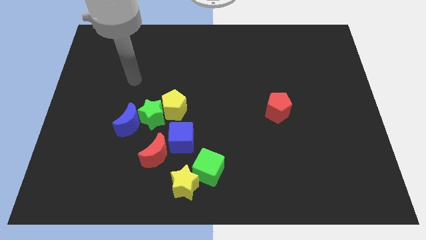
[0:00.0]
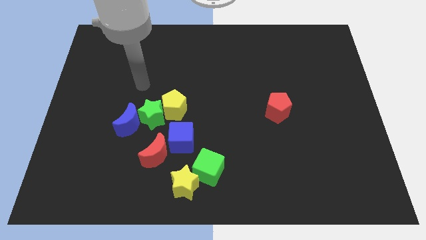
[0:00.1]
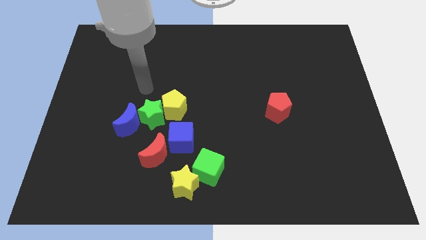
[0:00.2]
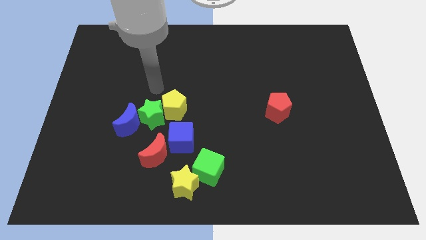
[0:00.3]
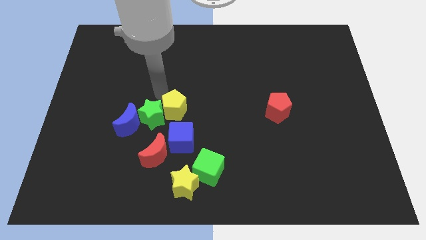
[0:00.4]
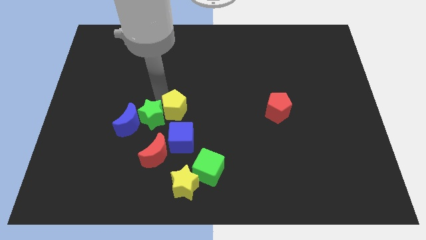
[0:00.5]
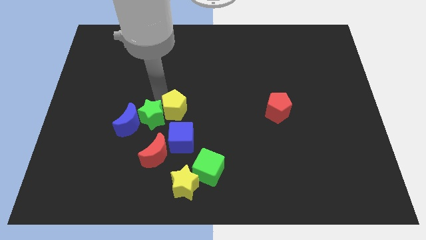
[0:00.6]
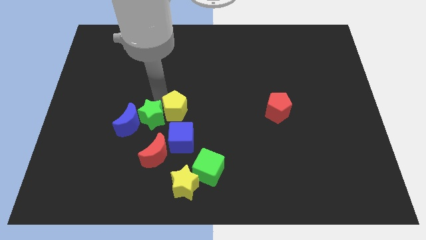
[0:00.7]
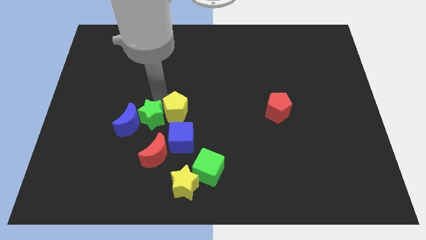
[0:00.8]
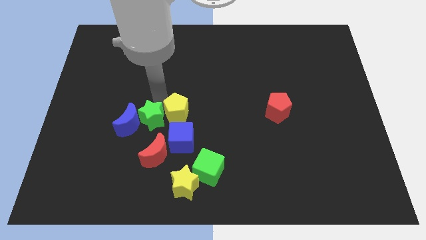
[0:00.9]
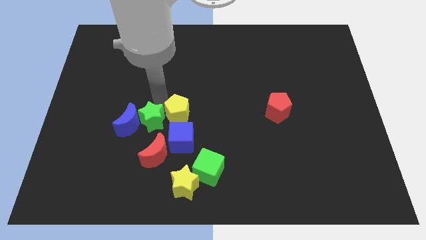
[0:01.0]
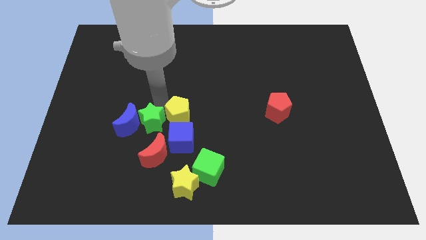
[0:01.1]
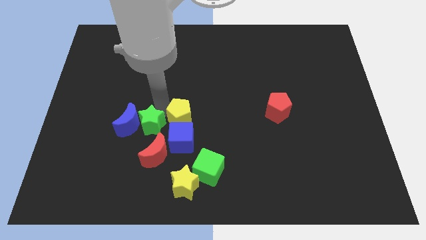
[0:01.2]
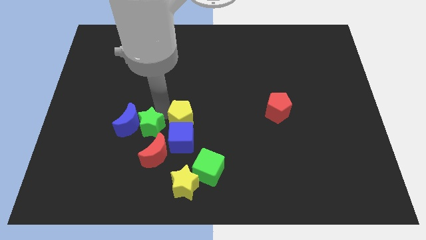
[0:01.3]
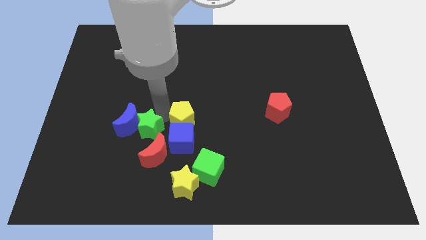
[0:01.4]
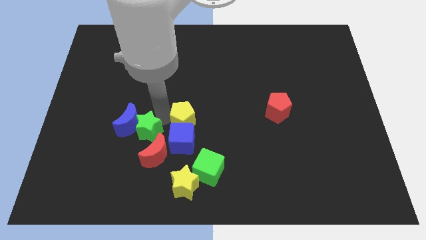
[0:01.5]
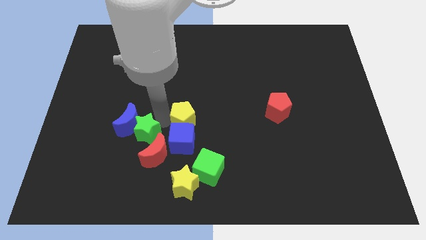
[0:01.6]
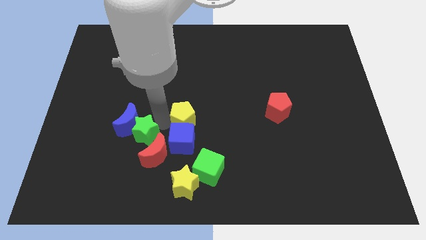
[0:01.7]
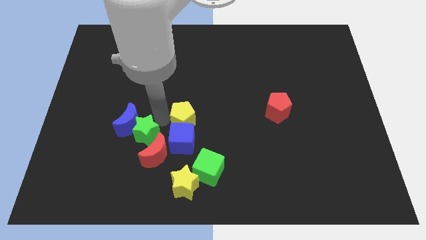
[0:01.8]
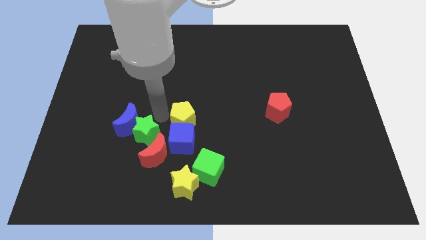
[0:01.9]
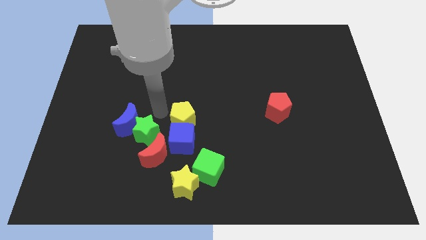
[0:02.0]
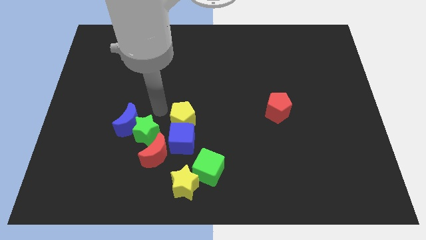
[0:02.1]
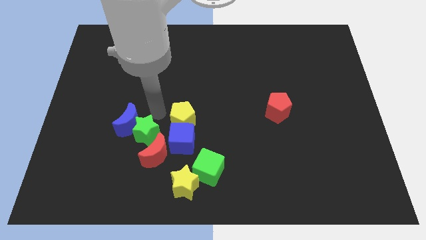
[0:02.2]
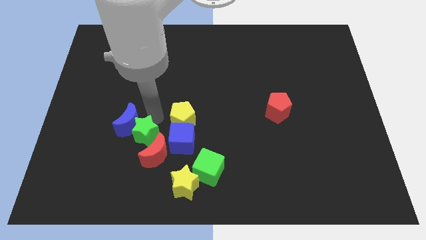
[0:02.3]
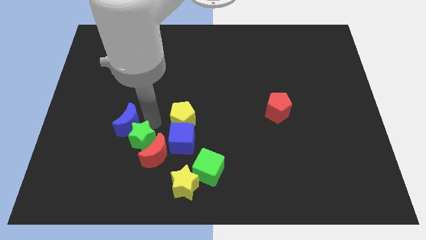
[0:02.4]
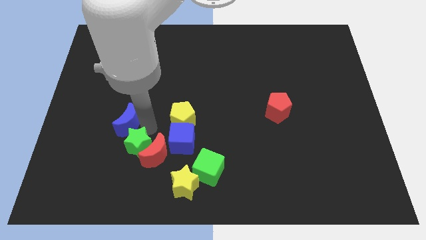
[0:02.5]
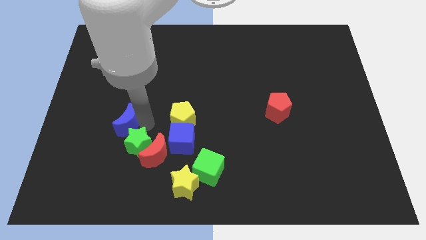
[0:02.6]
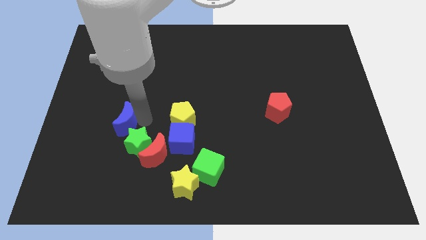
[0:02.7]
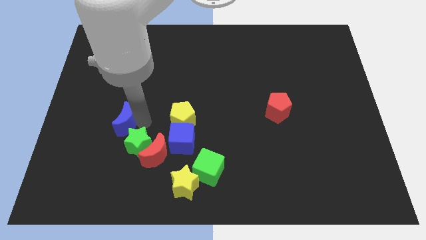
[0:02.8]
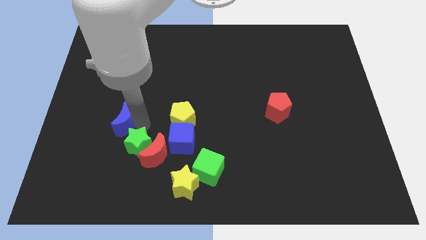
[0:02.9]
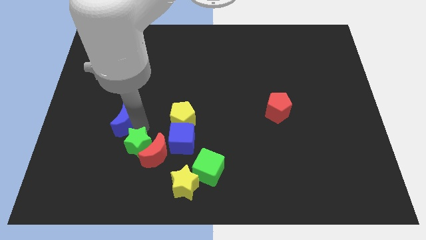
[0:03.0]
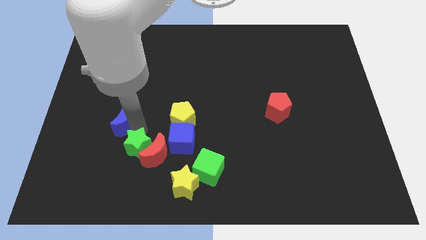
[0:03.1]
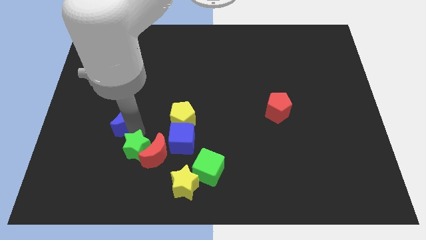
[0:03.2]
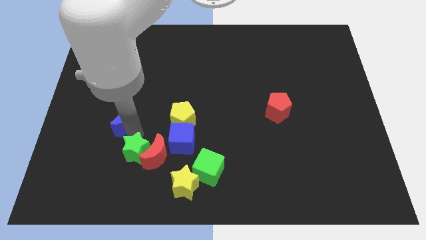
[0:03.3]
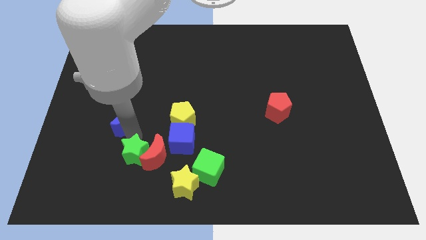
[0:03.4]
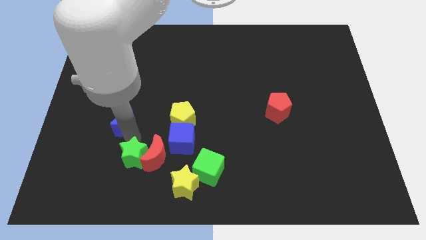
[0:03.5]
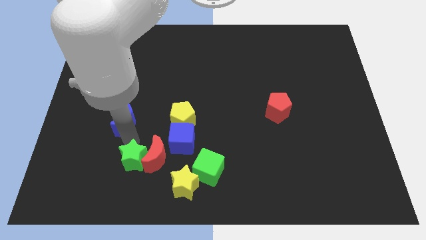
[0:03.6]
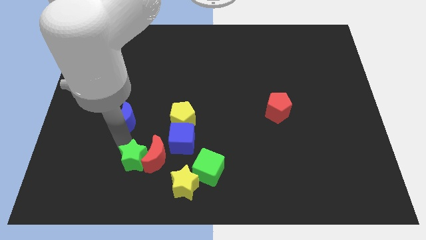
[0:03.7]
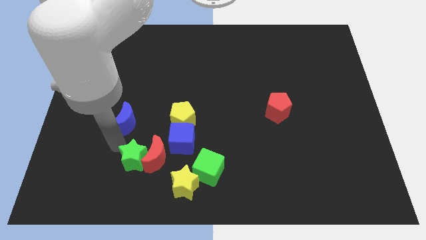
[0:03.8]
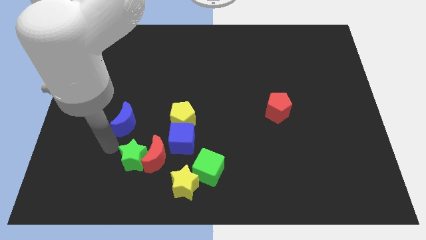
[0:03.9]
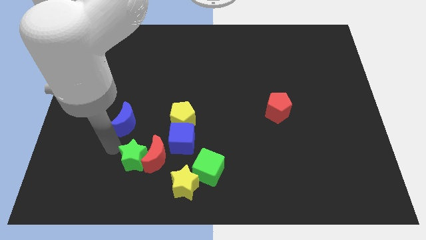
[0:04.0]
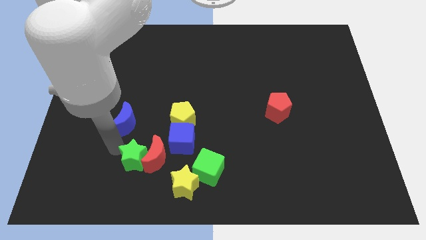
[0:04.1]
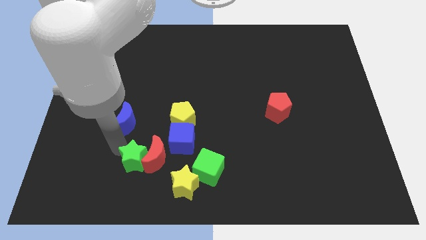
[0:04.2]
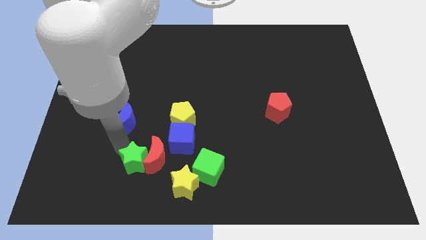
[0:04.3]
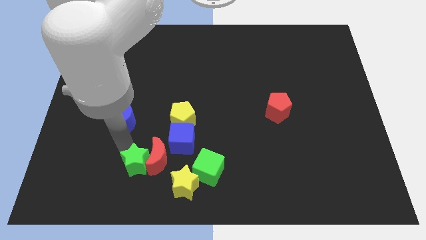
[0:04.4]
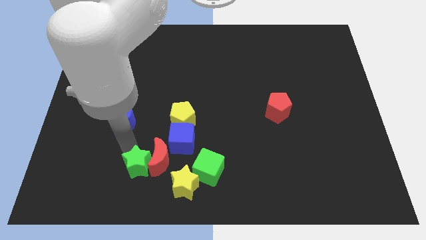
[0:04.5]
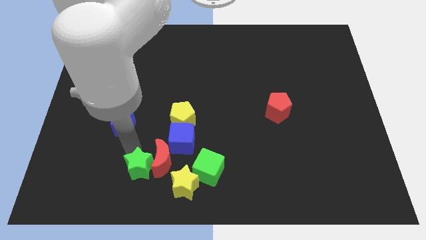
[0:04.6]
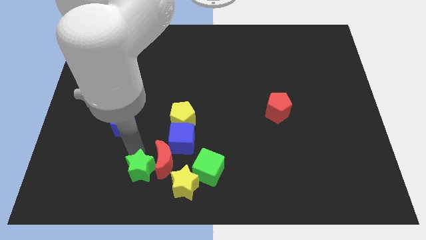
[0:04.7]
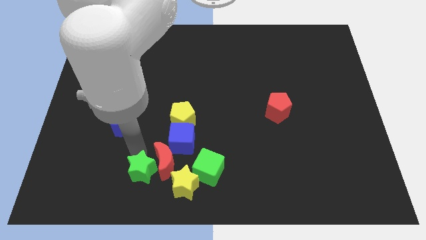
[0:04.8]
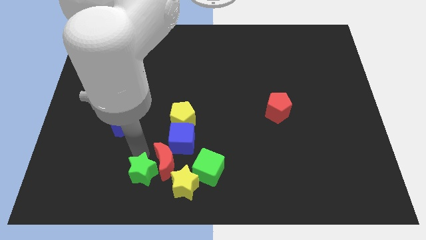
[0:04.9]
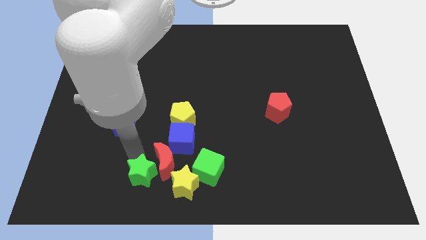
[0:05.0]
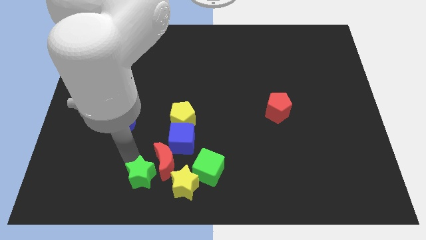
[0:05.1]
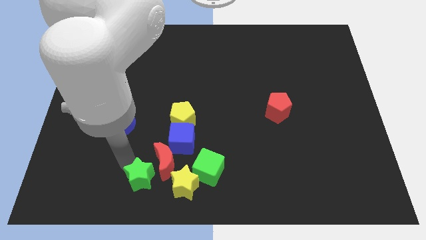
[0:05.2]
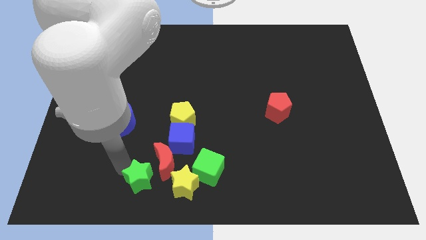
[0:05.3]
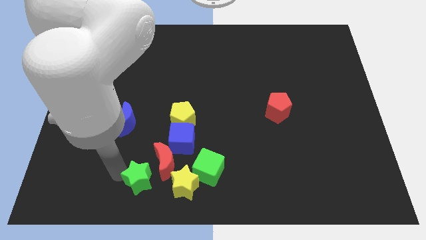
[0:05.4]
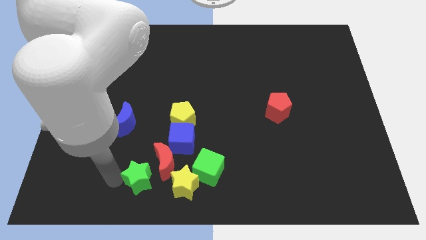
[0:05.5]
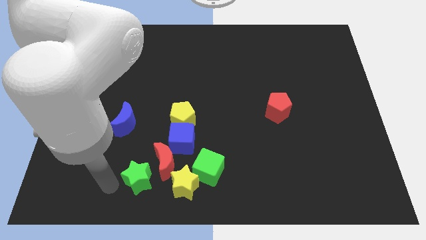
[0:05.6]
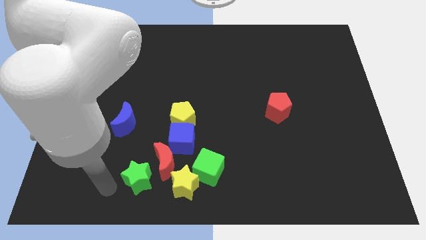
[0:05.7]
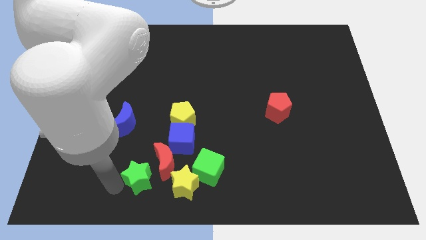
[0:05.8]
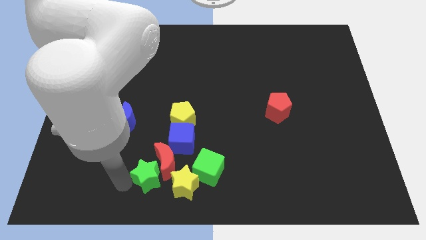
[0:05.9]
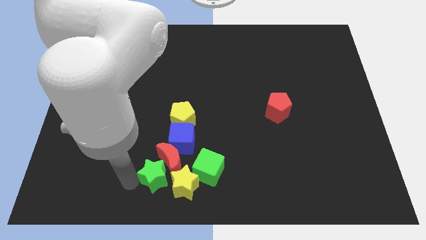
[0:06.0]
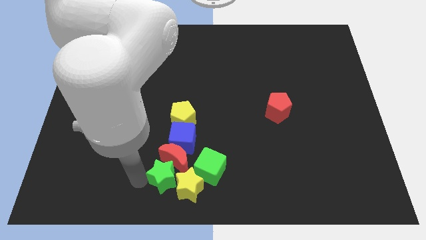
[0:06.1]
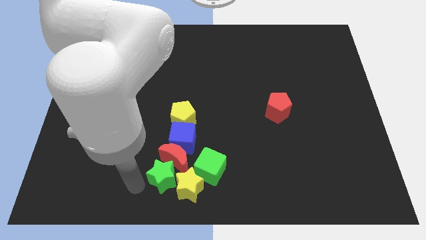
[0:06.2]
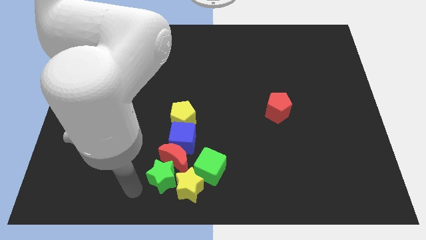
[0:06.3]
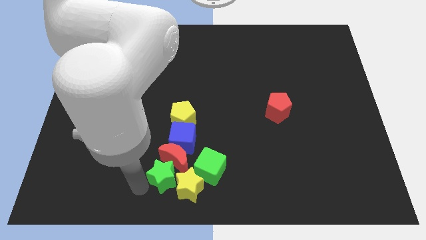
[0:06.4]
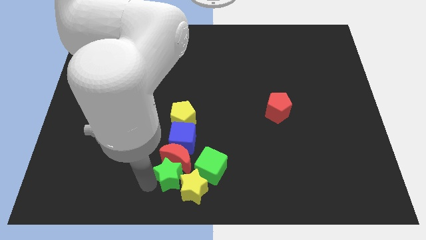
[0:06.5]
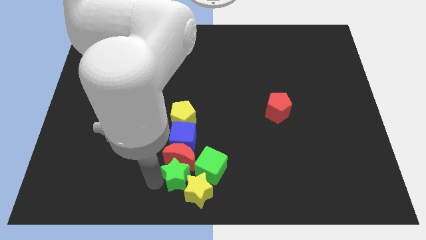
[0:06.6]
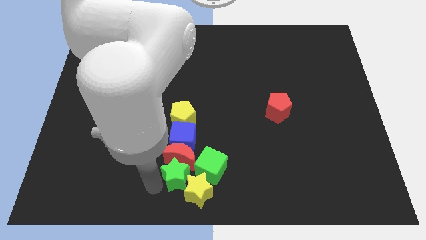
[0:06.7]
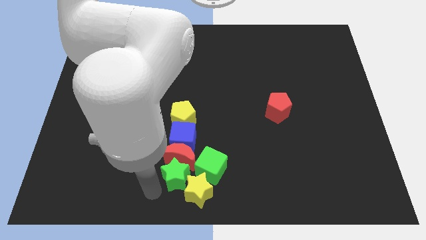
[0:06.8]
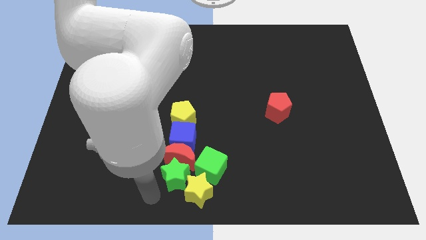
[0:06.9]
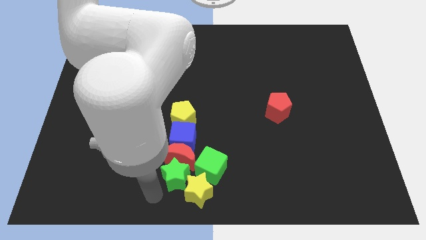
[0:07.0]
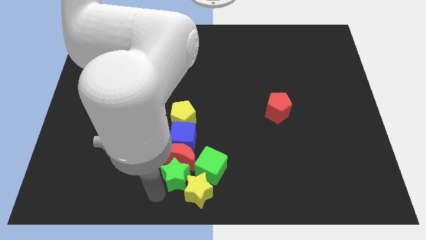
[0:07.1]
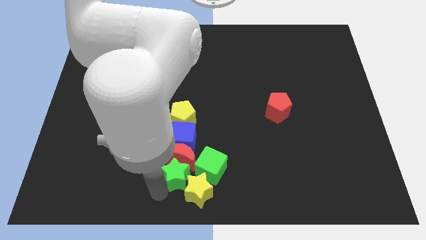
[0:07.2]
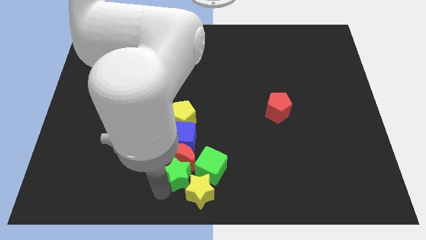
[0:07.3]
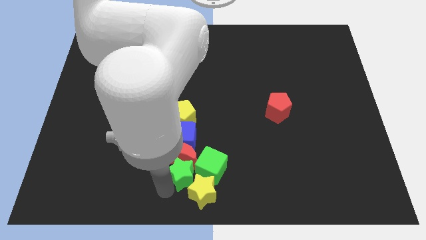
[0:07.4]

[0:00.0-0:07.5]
push the green star close to the green cube
